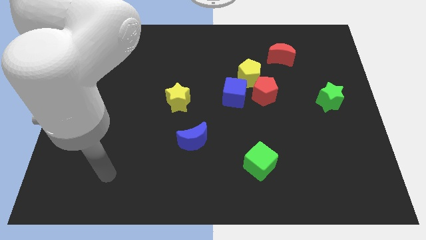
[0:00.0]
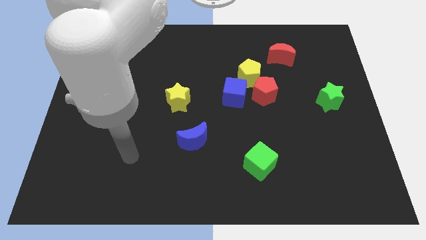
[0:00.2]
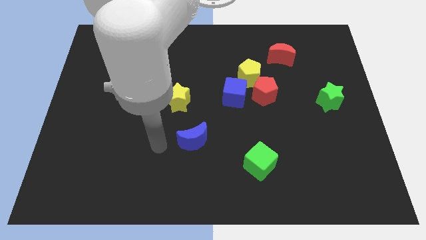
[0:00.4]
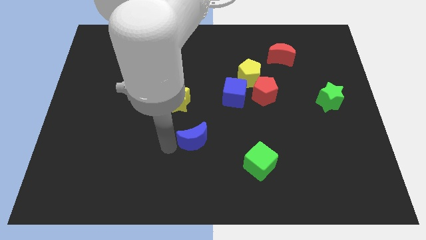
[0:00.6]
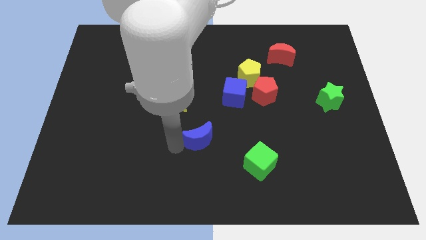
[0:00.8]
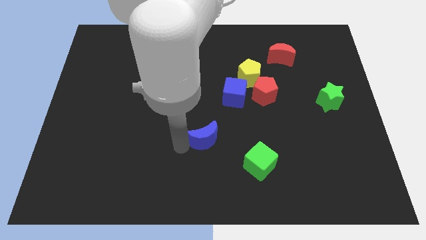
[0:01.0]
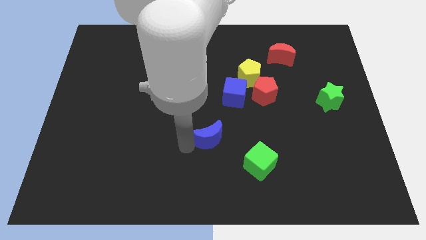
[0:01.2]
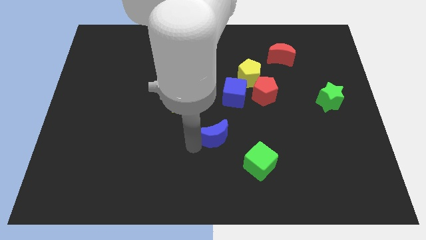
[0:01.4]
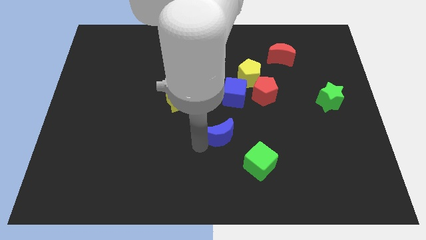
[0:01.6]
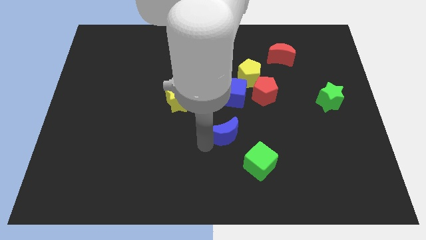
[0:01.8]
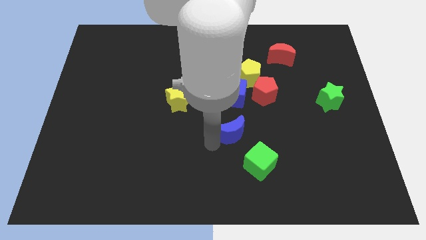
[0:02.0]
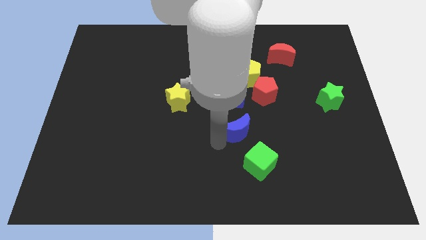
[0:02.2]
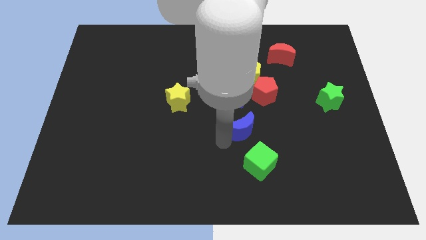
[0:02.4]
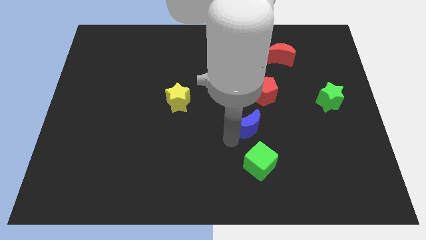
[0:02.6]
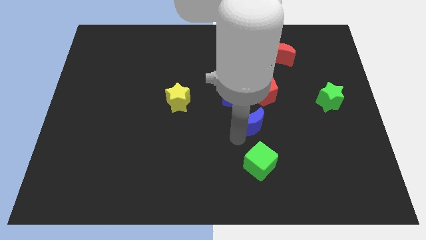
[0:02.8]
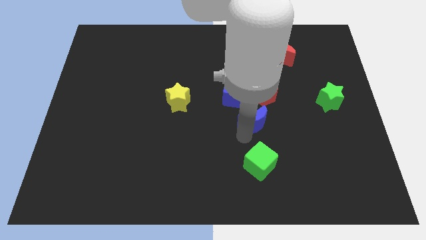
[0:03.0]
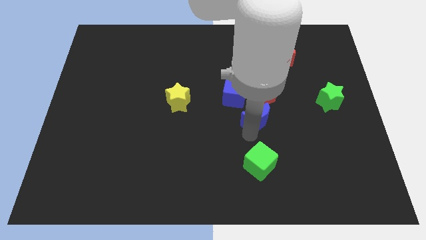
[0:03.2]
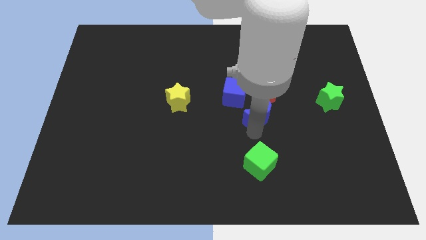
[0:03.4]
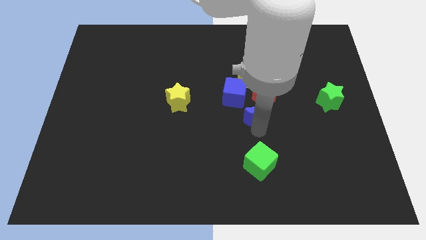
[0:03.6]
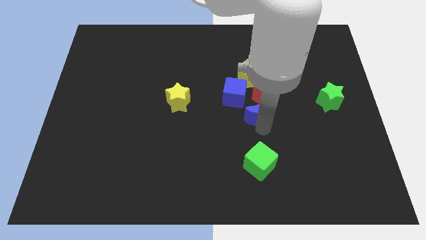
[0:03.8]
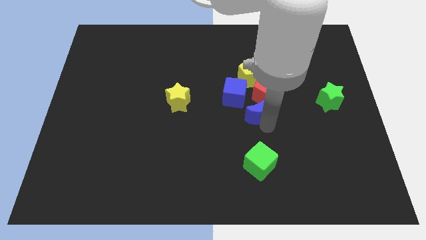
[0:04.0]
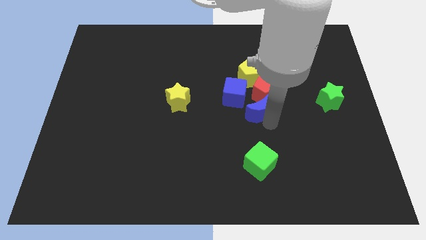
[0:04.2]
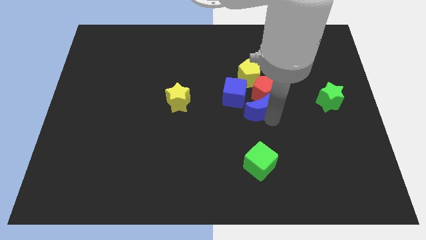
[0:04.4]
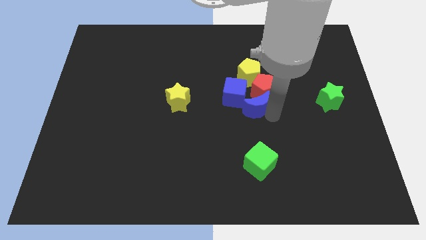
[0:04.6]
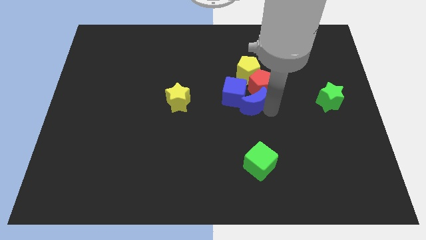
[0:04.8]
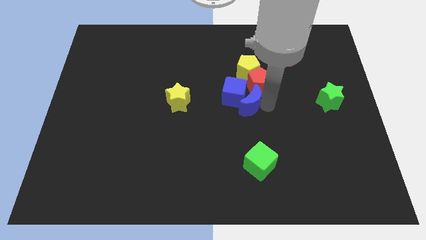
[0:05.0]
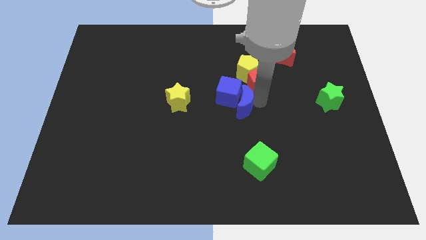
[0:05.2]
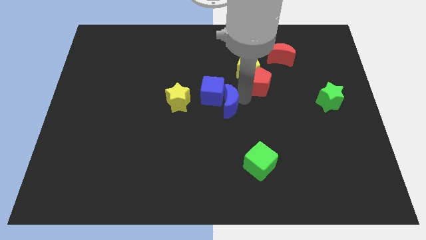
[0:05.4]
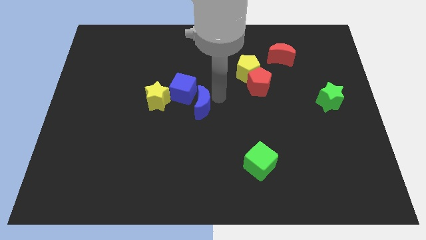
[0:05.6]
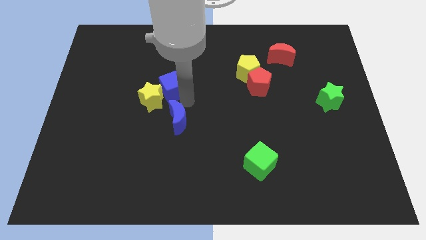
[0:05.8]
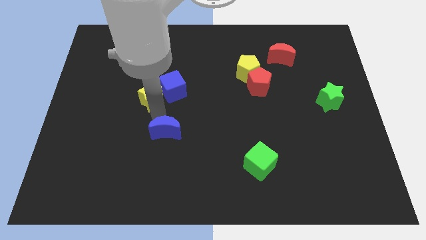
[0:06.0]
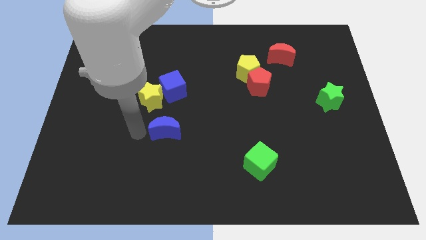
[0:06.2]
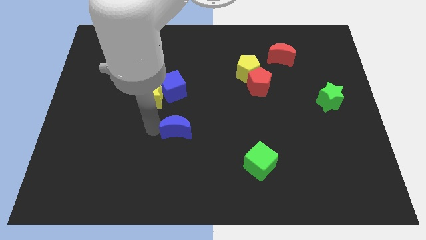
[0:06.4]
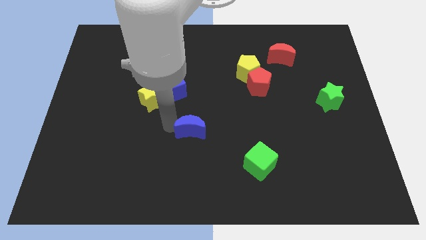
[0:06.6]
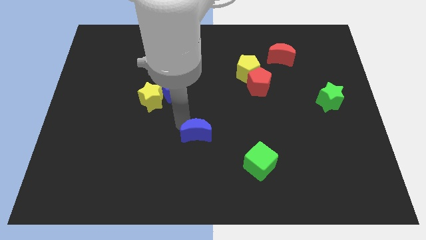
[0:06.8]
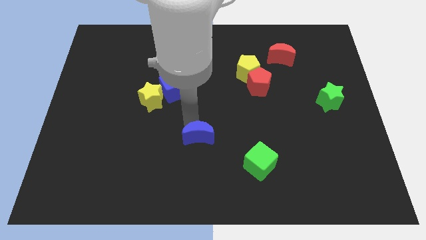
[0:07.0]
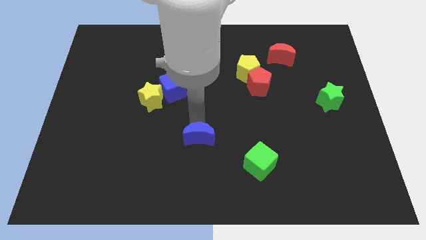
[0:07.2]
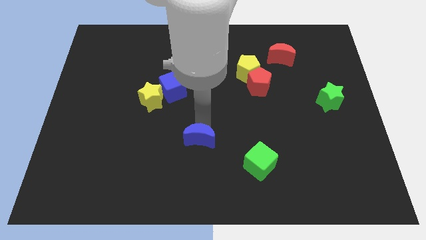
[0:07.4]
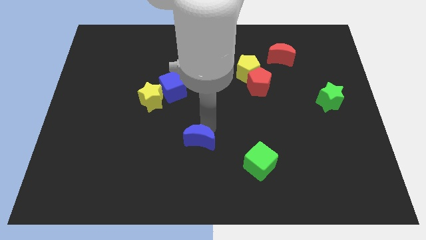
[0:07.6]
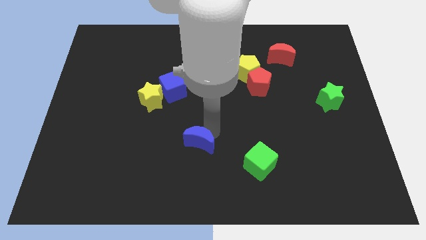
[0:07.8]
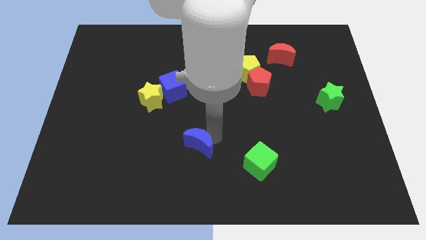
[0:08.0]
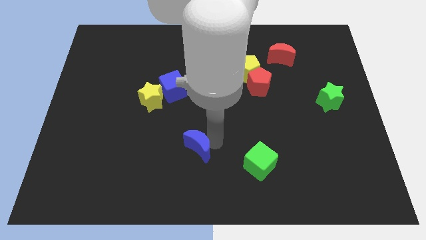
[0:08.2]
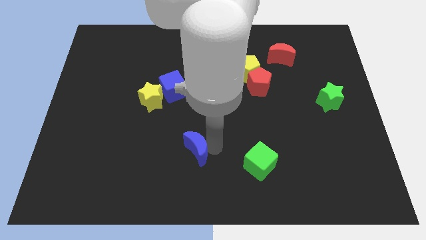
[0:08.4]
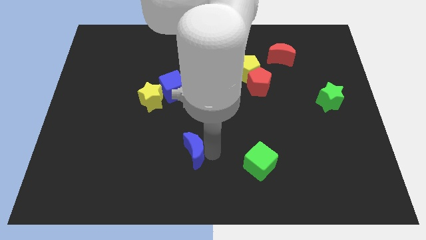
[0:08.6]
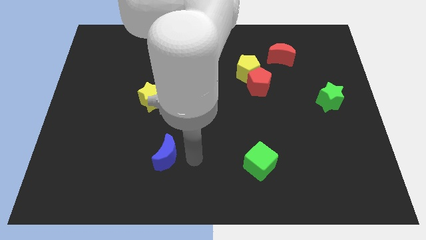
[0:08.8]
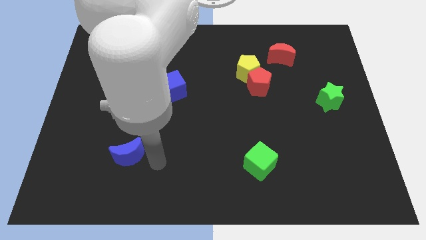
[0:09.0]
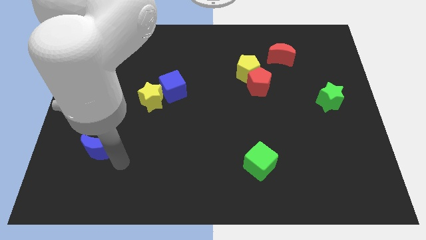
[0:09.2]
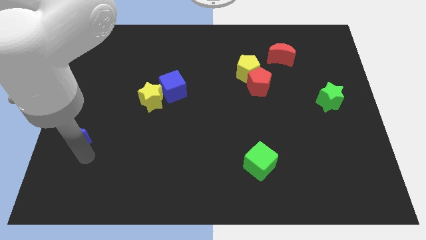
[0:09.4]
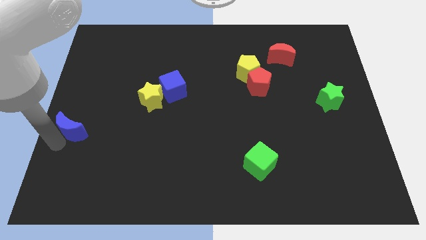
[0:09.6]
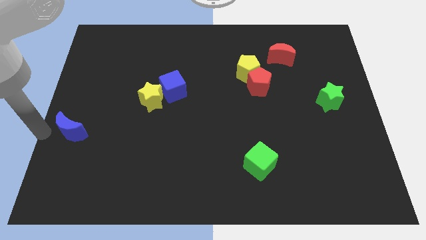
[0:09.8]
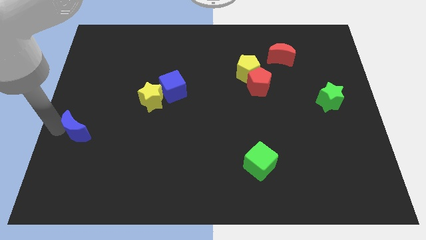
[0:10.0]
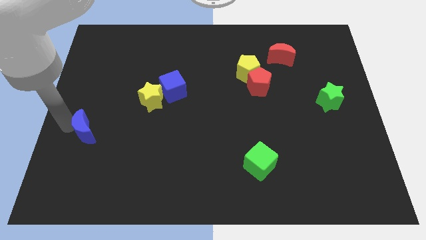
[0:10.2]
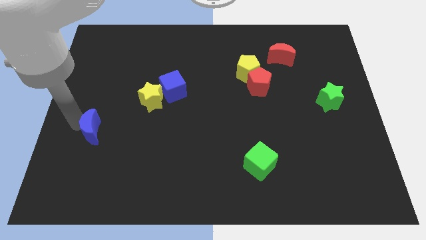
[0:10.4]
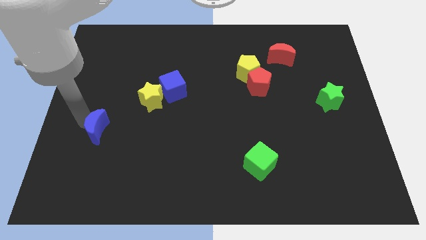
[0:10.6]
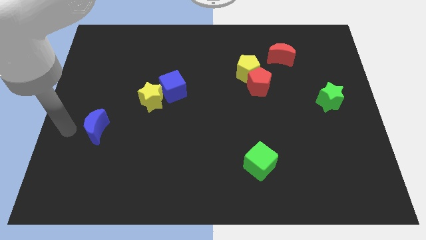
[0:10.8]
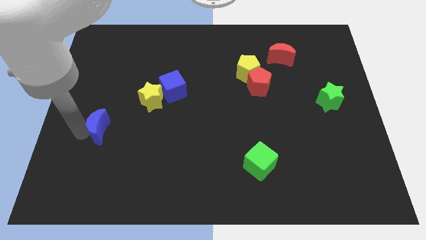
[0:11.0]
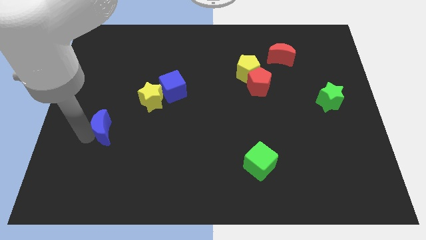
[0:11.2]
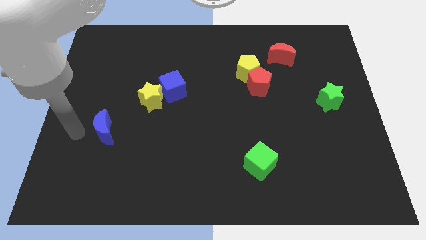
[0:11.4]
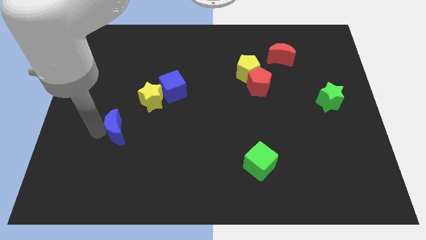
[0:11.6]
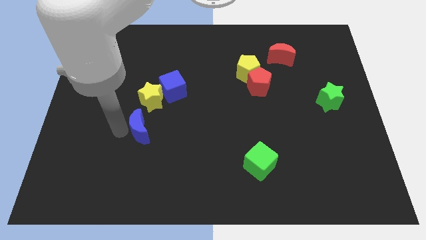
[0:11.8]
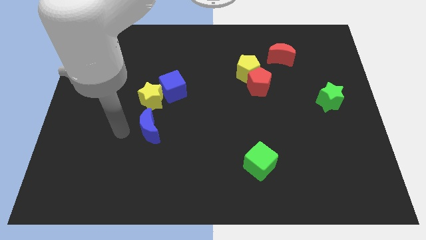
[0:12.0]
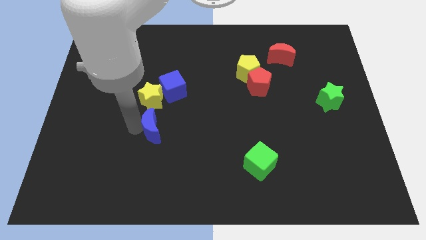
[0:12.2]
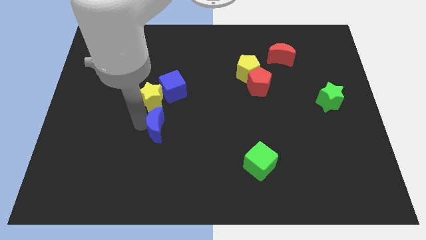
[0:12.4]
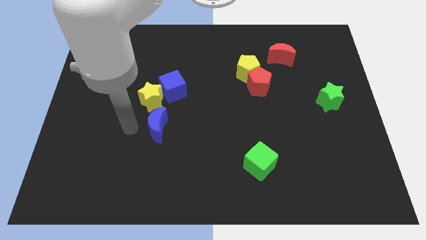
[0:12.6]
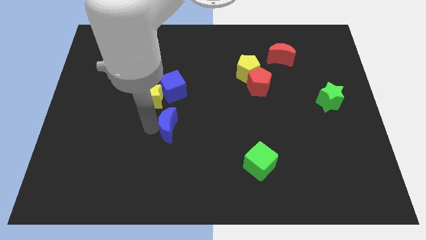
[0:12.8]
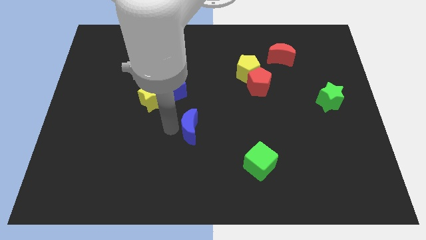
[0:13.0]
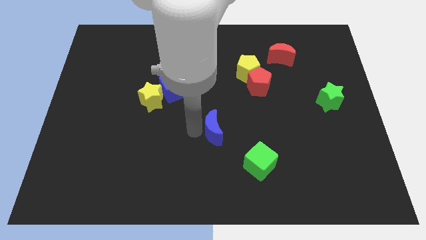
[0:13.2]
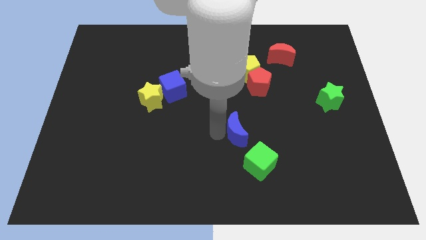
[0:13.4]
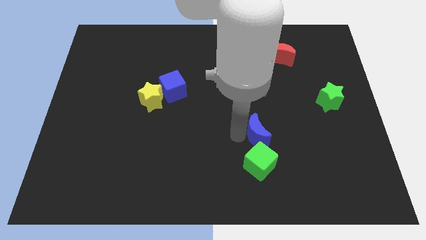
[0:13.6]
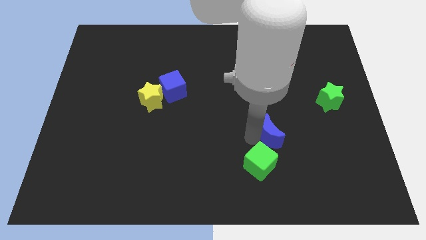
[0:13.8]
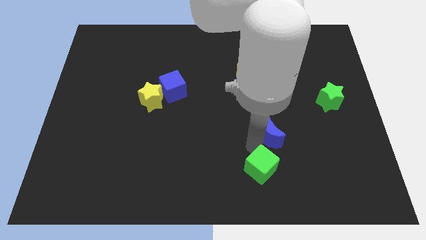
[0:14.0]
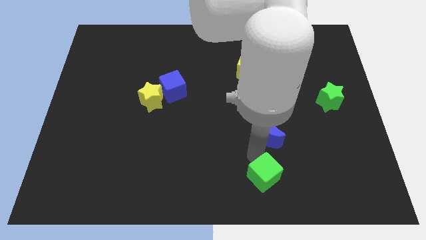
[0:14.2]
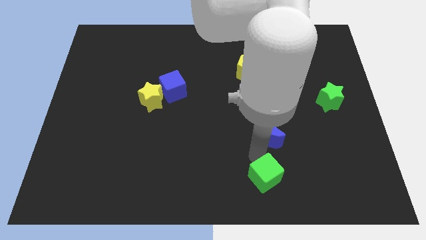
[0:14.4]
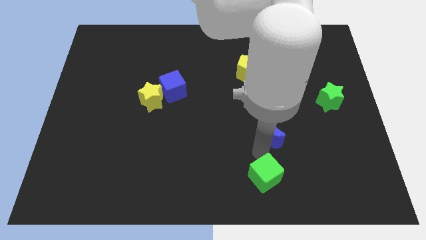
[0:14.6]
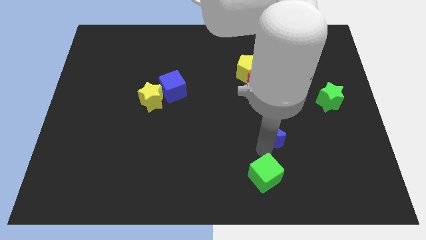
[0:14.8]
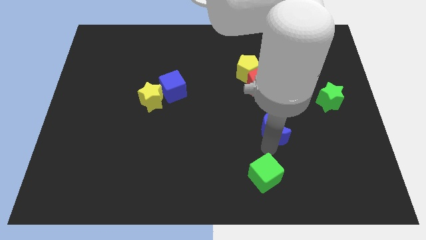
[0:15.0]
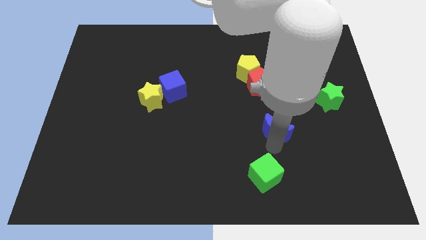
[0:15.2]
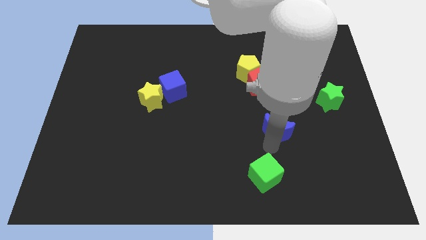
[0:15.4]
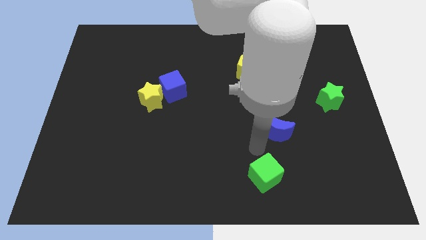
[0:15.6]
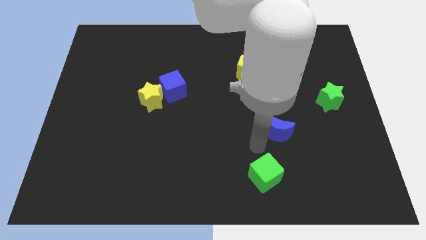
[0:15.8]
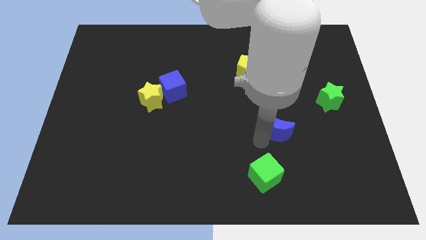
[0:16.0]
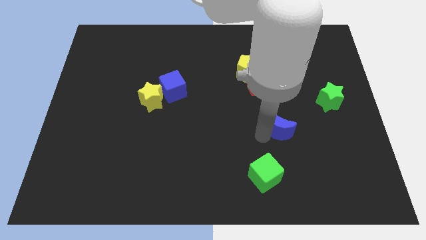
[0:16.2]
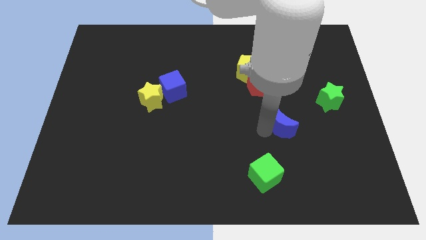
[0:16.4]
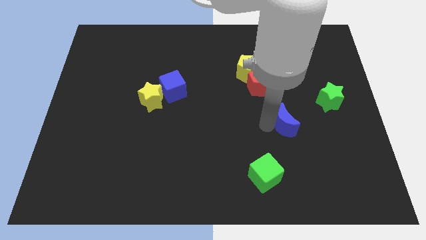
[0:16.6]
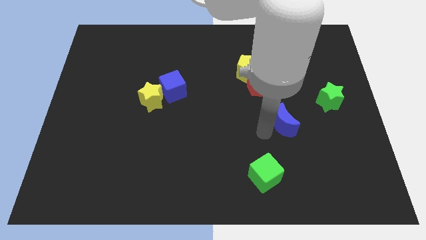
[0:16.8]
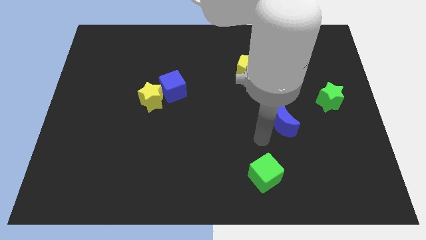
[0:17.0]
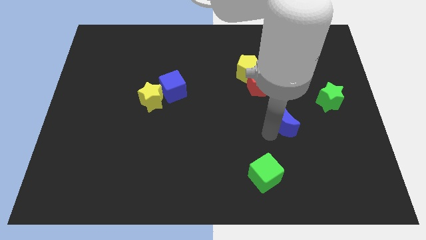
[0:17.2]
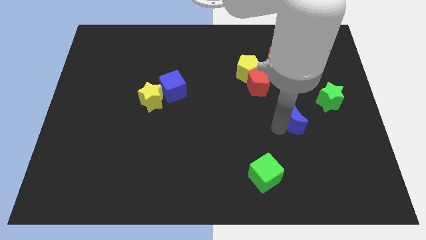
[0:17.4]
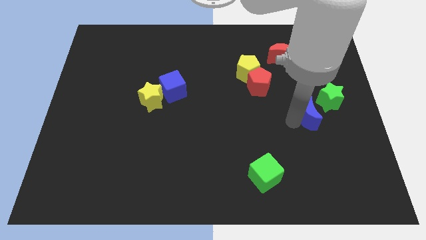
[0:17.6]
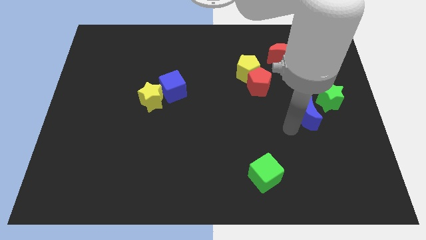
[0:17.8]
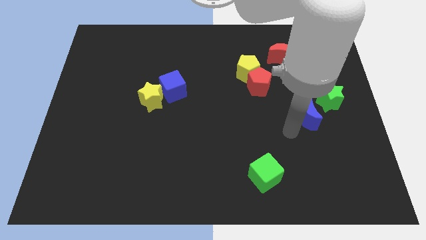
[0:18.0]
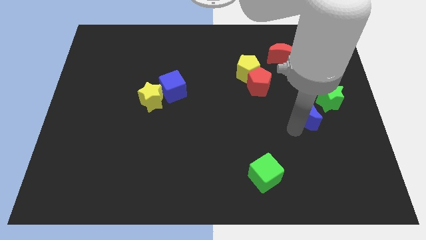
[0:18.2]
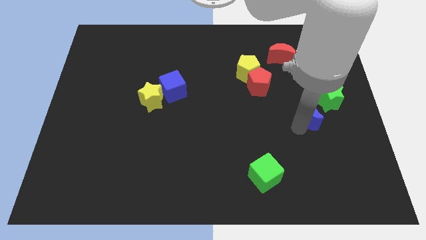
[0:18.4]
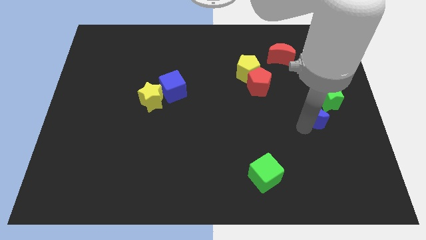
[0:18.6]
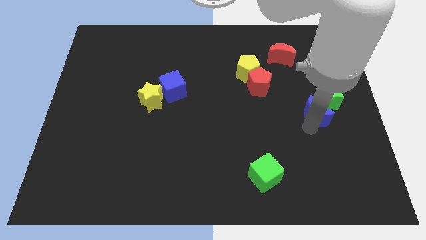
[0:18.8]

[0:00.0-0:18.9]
put the blue moon to the green star
